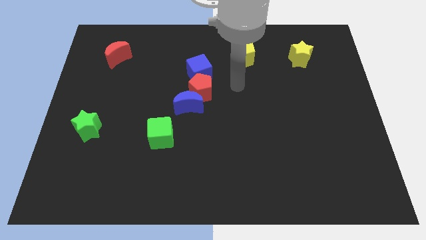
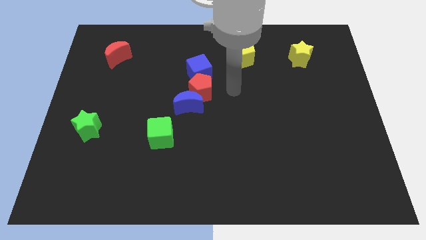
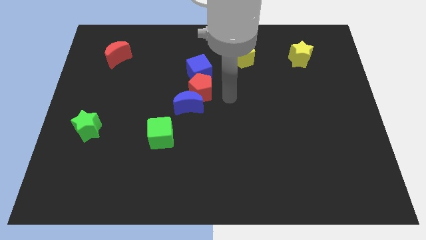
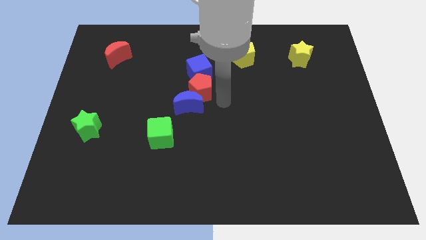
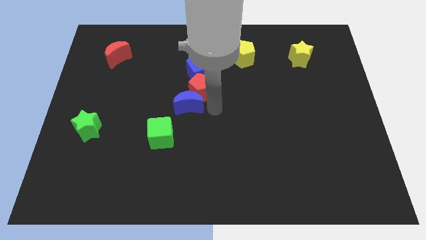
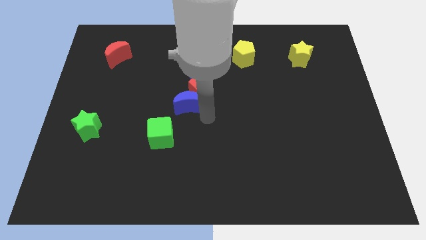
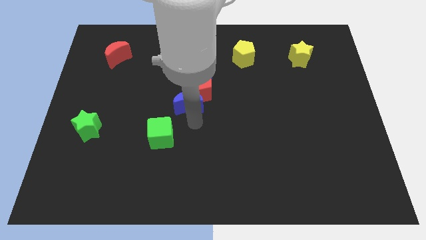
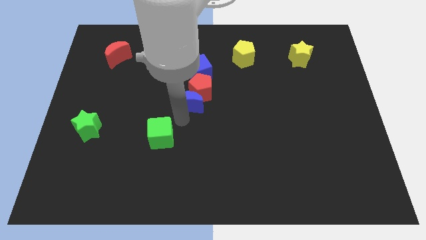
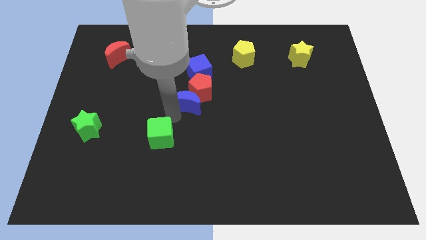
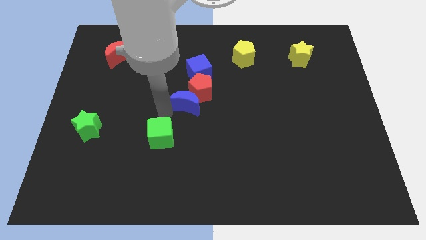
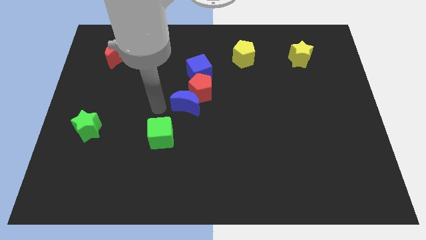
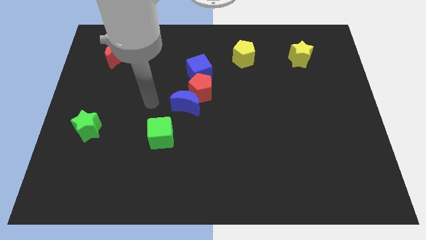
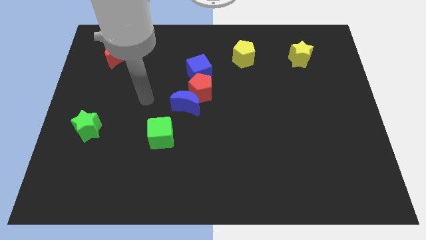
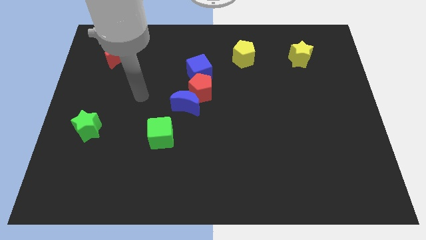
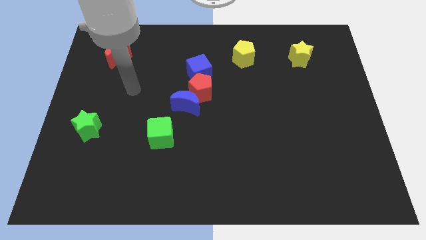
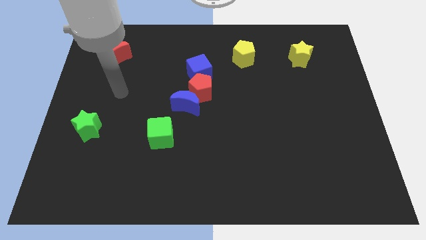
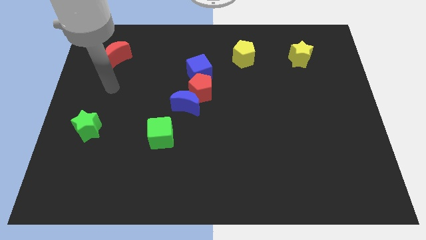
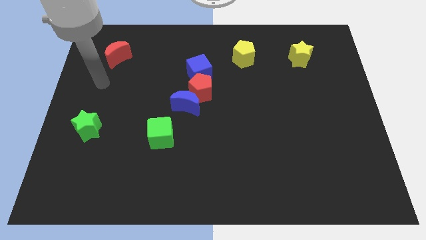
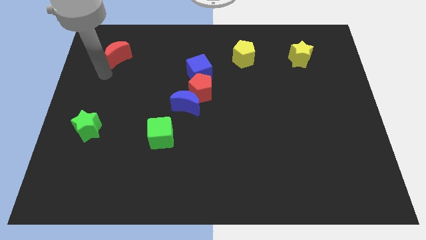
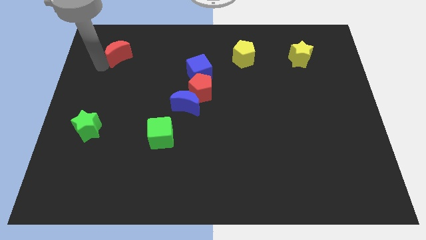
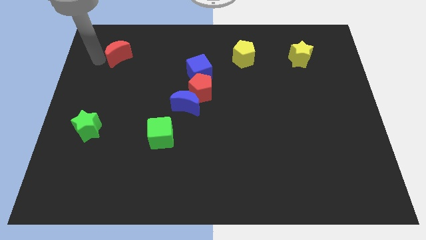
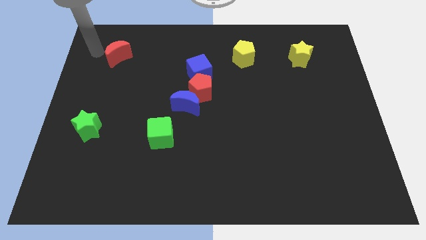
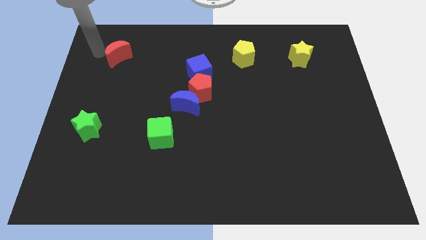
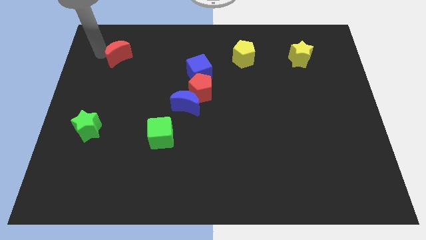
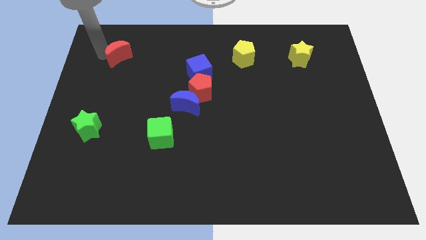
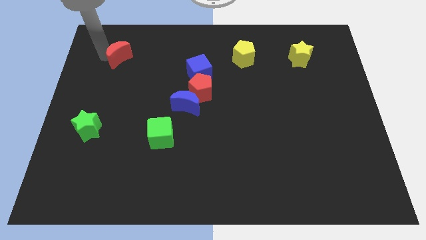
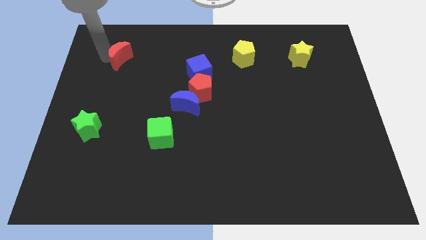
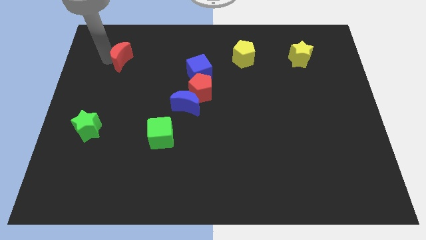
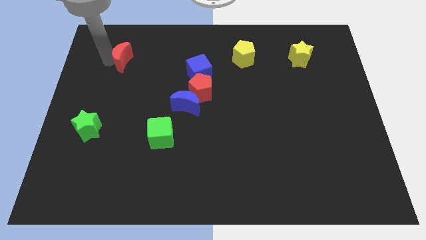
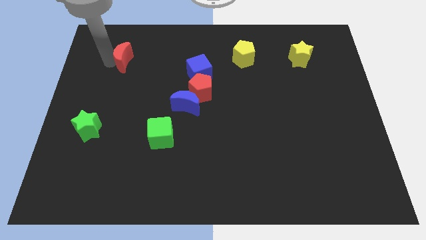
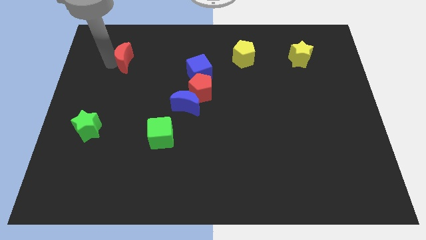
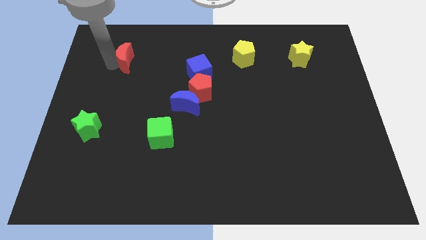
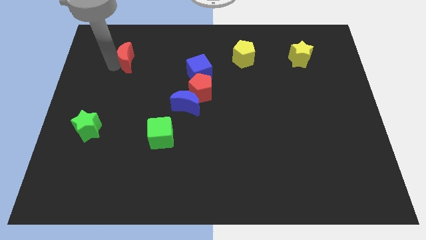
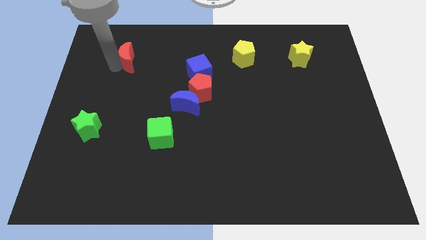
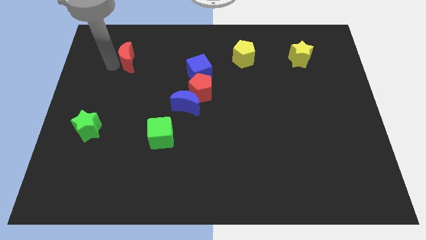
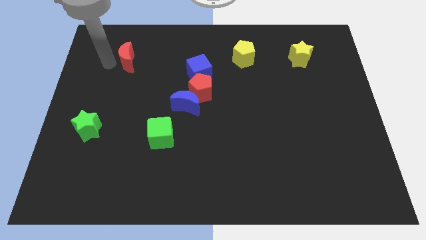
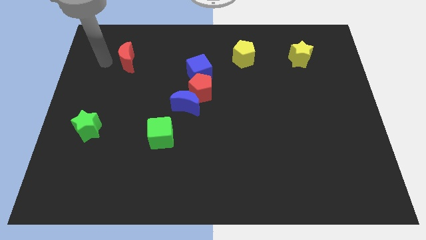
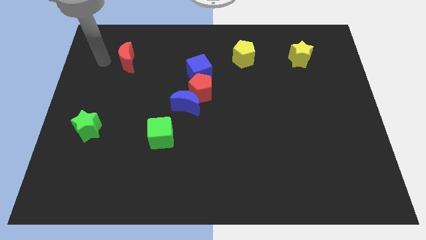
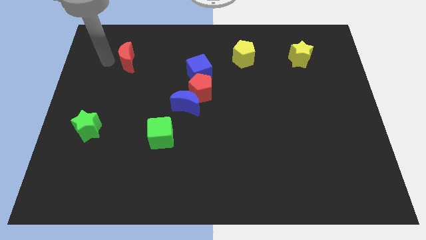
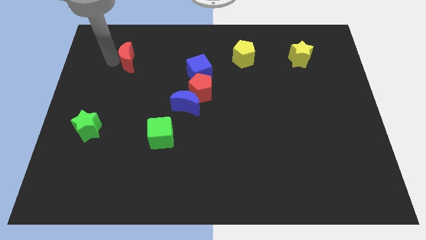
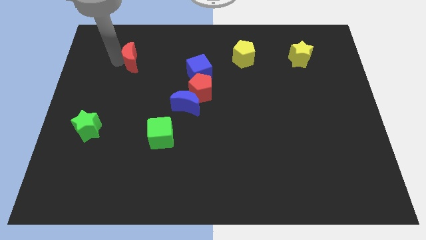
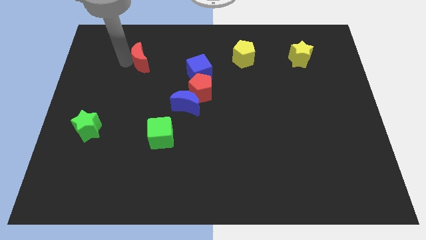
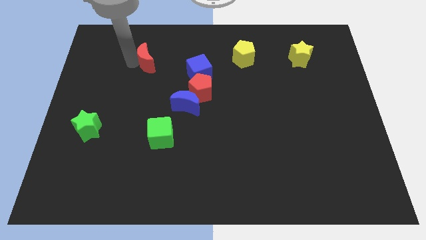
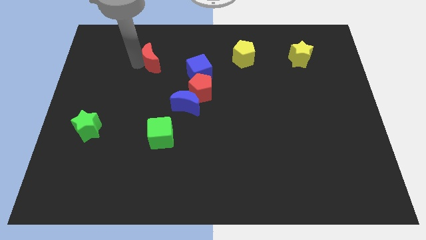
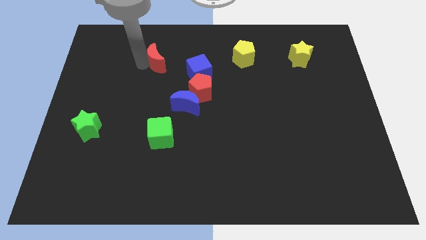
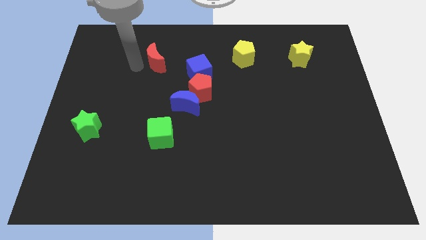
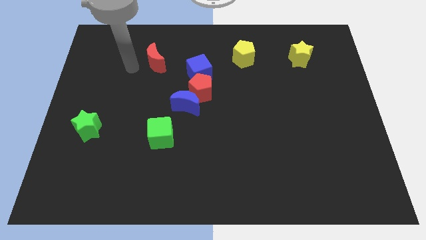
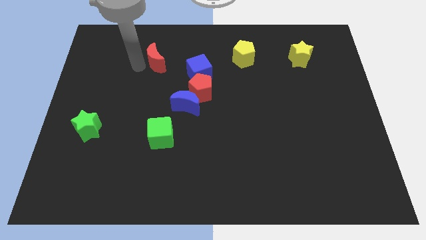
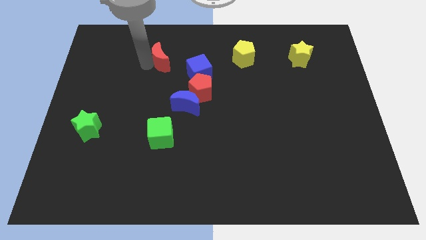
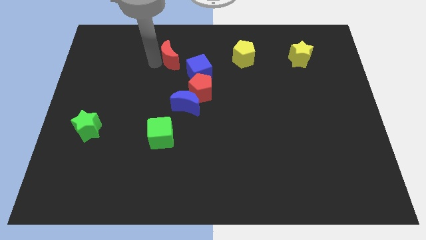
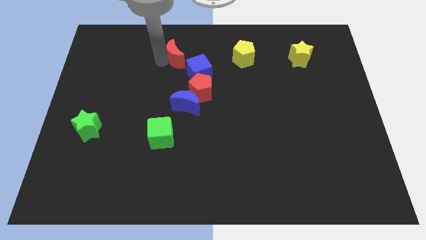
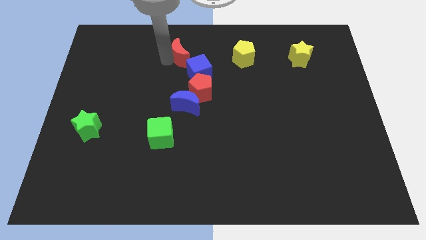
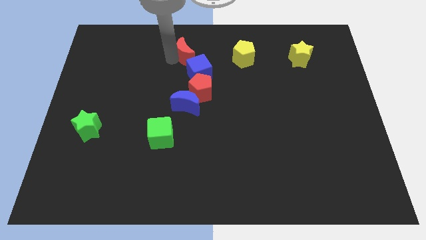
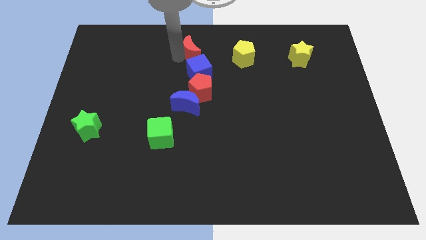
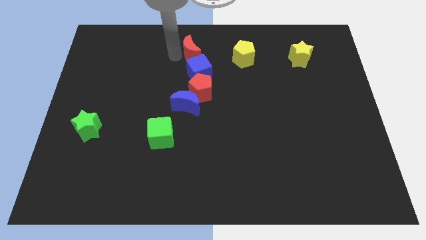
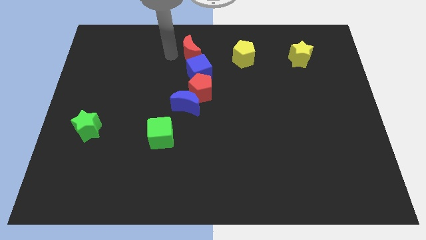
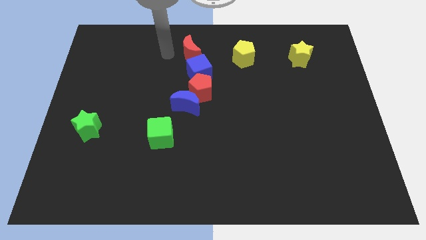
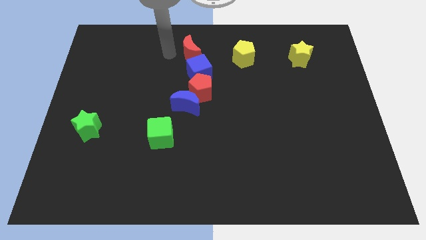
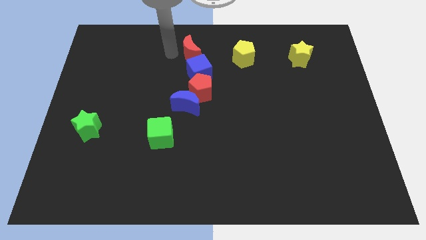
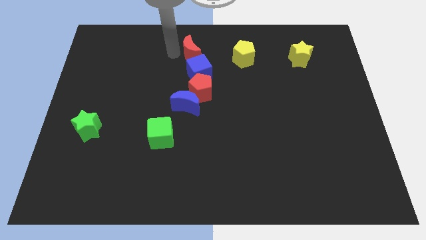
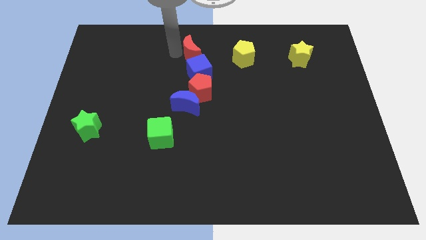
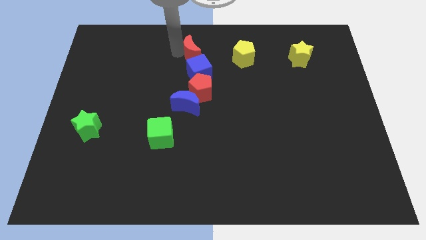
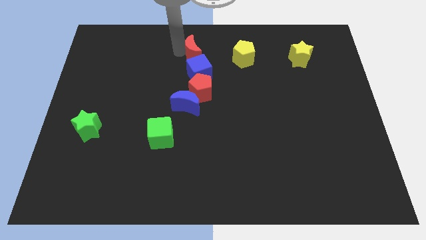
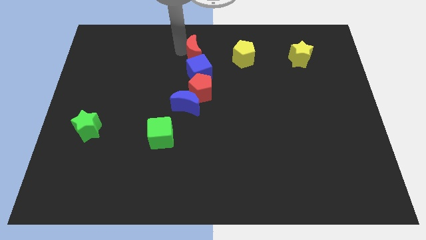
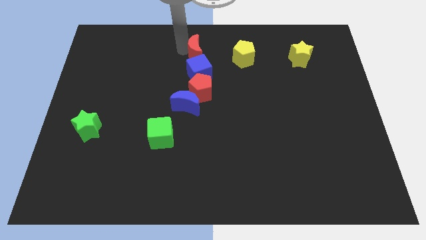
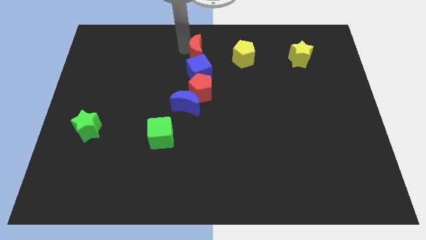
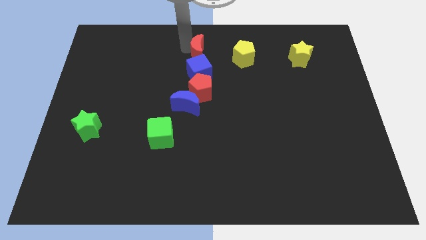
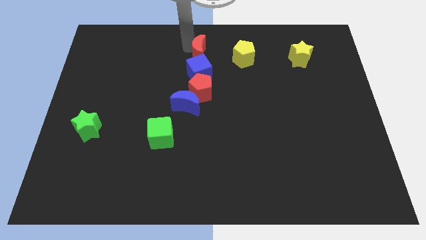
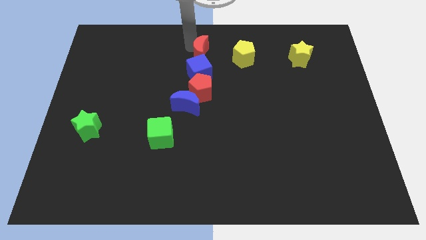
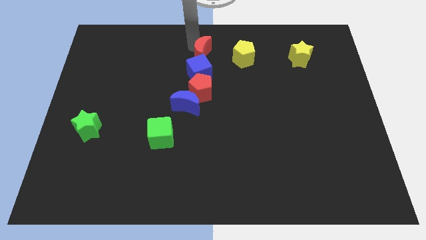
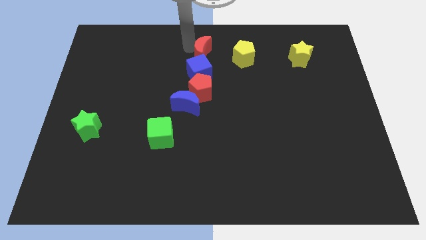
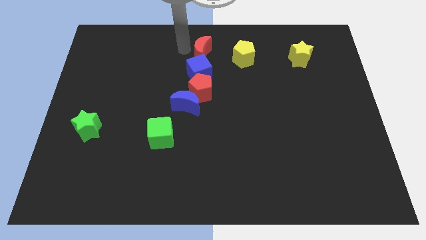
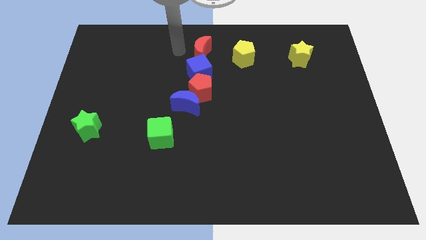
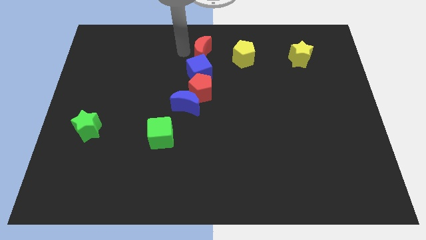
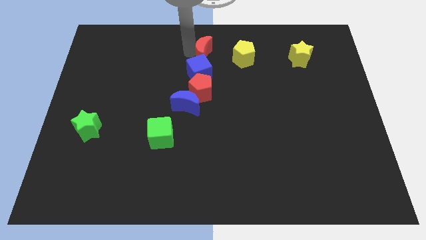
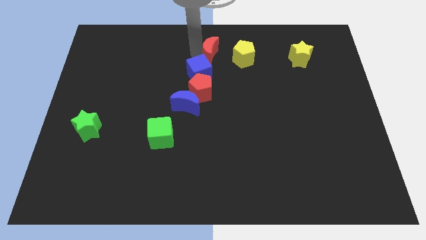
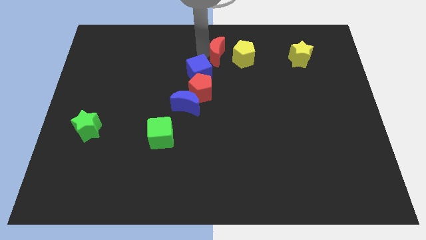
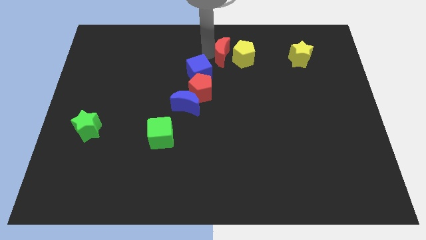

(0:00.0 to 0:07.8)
move the red moon towards the yellow pentagon
